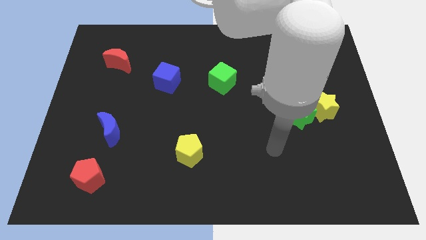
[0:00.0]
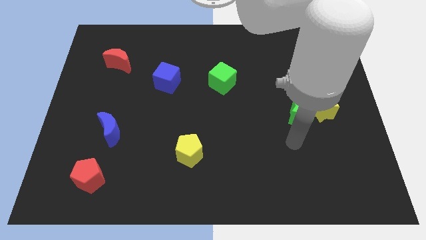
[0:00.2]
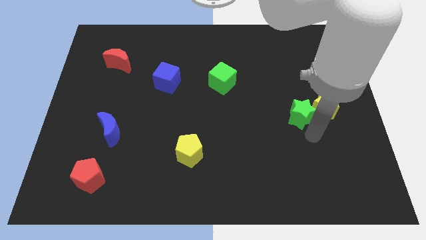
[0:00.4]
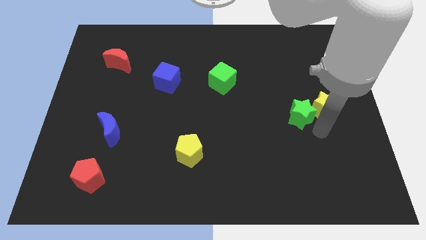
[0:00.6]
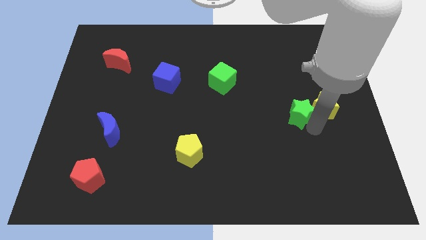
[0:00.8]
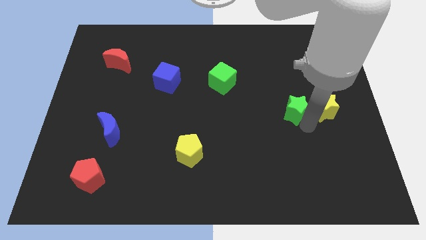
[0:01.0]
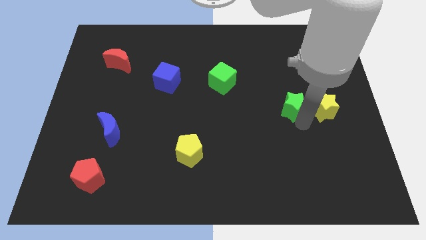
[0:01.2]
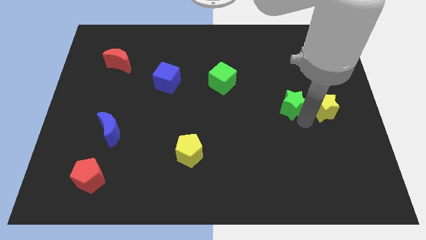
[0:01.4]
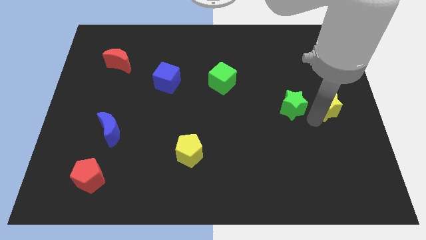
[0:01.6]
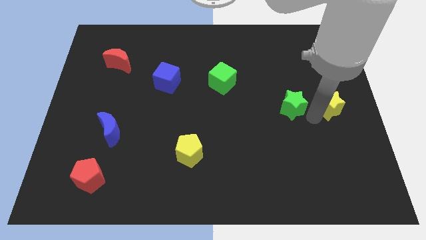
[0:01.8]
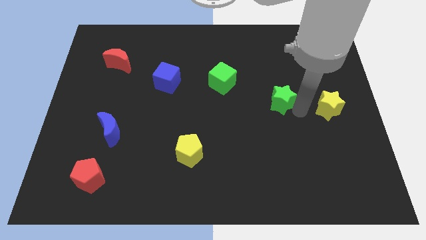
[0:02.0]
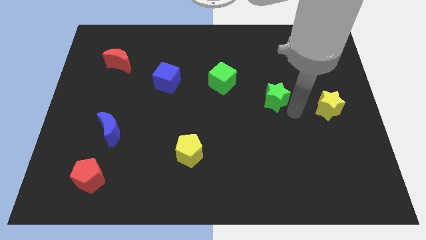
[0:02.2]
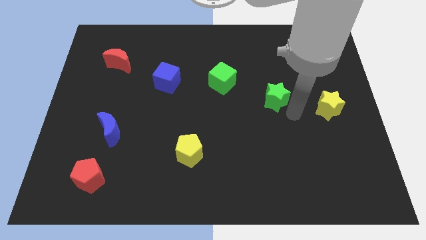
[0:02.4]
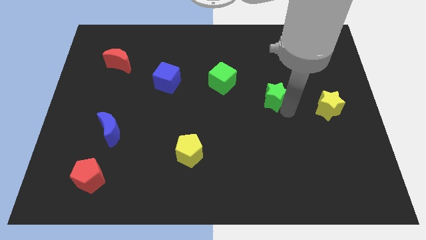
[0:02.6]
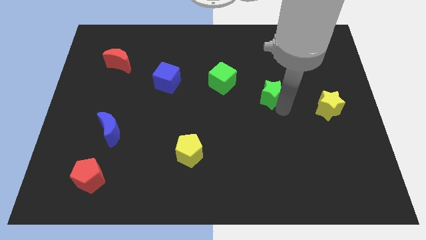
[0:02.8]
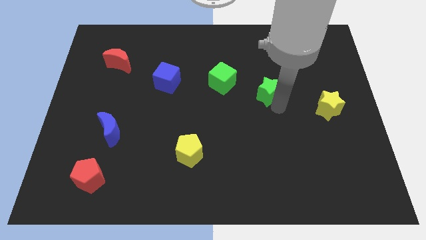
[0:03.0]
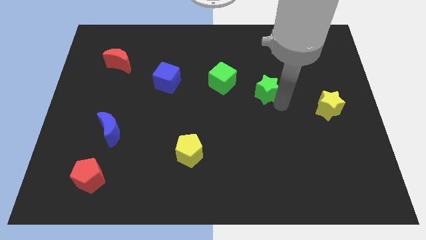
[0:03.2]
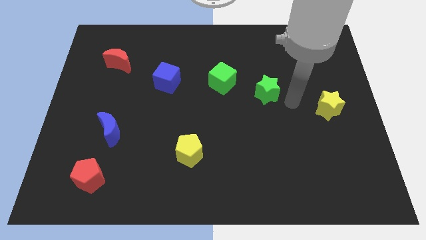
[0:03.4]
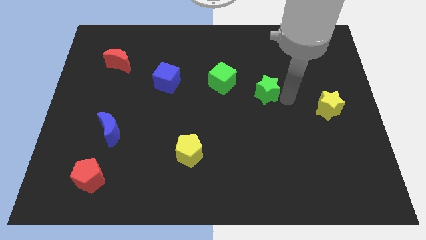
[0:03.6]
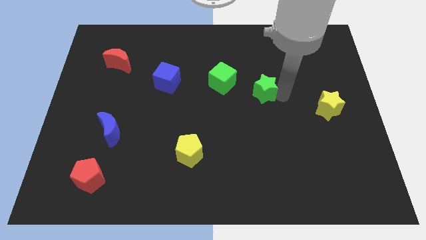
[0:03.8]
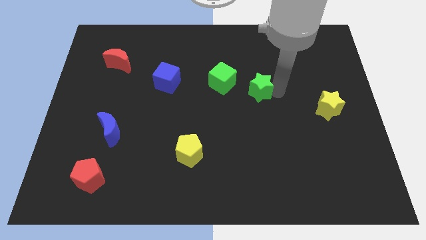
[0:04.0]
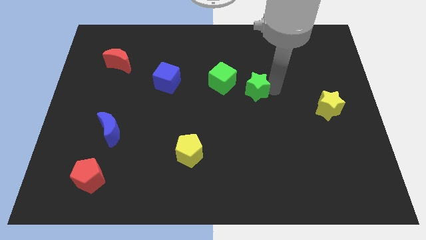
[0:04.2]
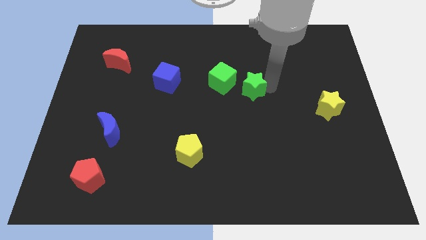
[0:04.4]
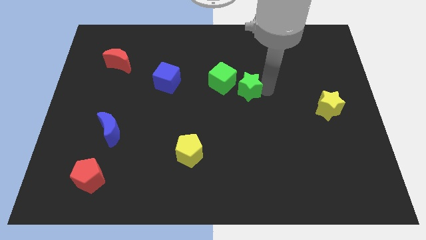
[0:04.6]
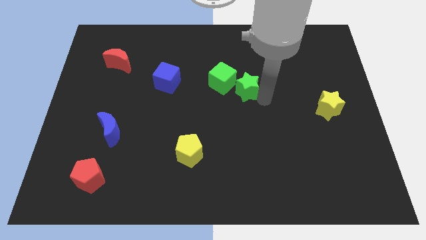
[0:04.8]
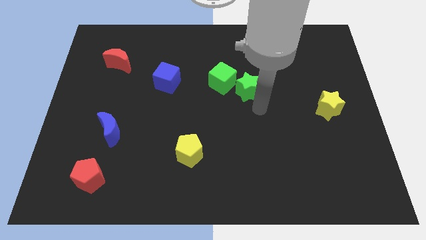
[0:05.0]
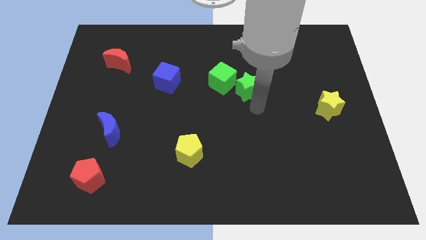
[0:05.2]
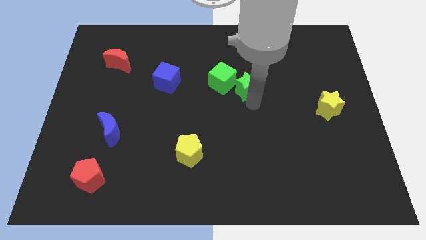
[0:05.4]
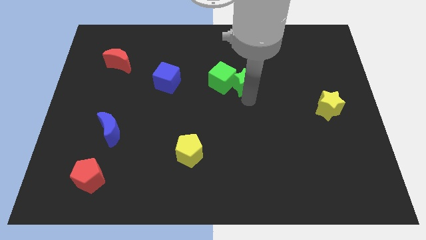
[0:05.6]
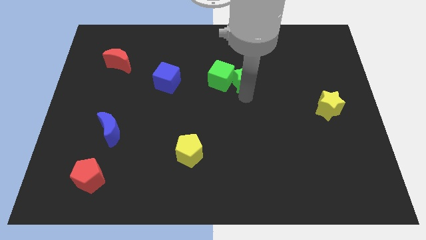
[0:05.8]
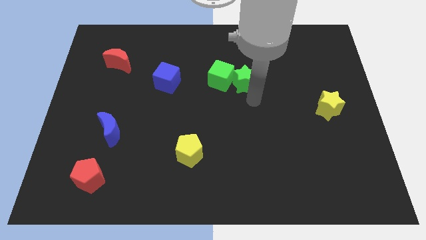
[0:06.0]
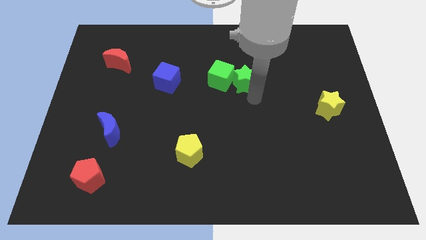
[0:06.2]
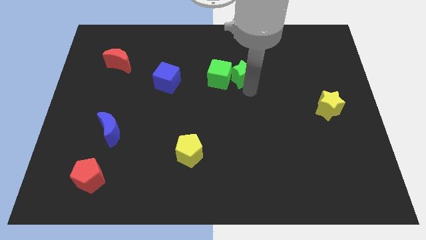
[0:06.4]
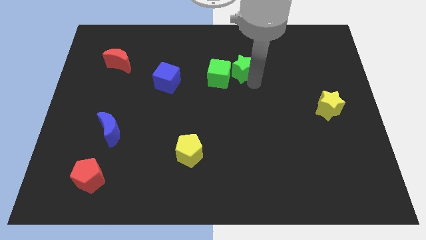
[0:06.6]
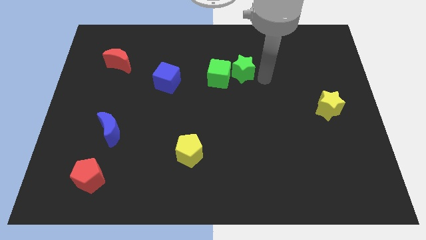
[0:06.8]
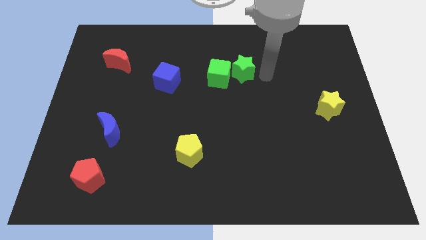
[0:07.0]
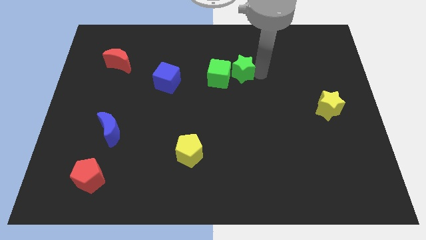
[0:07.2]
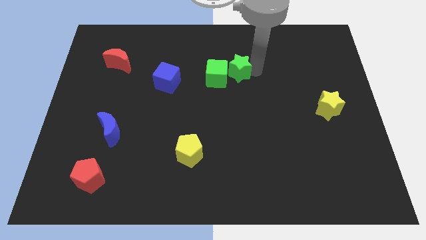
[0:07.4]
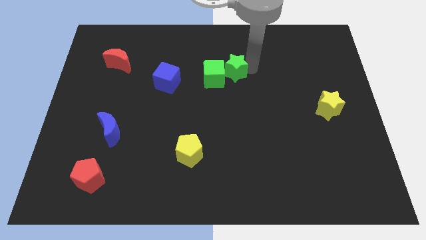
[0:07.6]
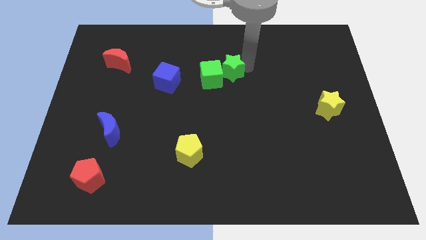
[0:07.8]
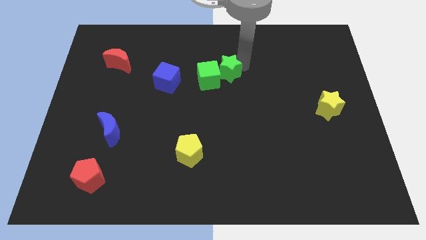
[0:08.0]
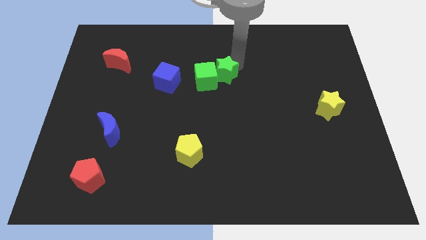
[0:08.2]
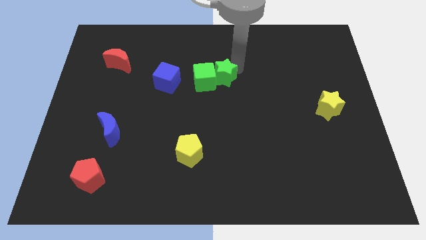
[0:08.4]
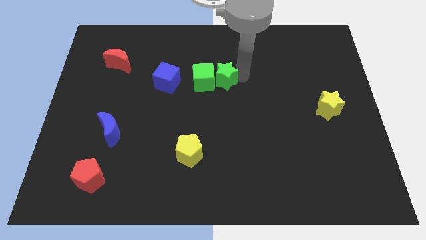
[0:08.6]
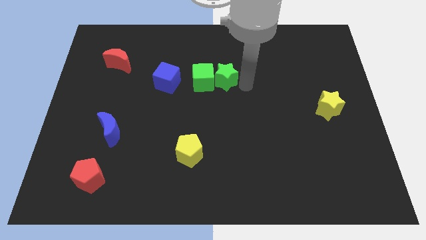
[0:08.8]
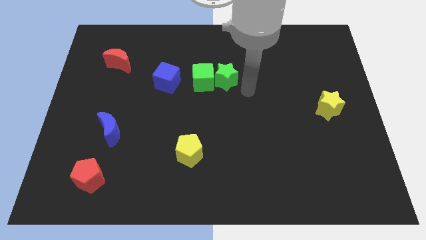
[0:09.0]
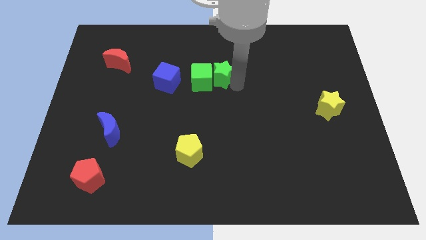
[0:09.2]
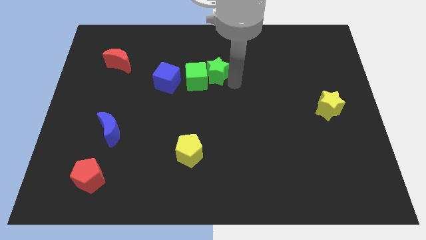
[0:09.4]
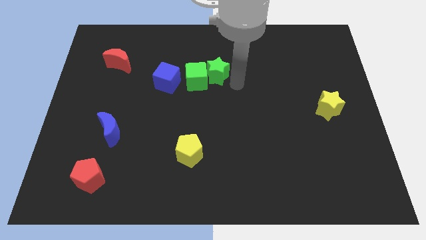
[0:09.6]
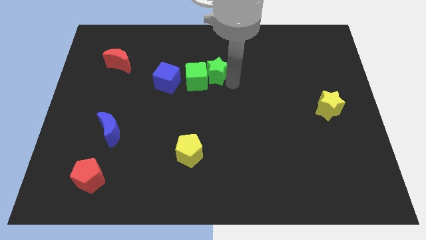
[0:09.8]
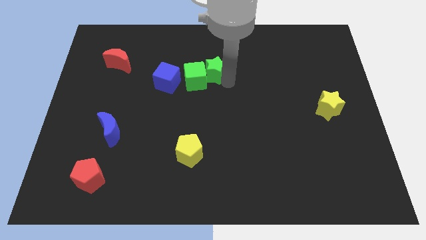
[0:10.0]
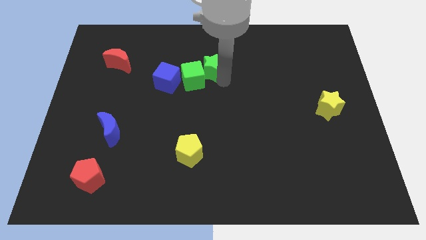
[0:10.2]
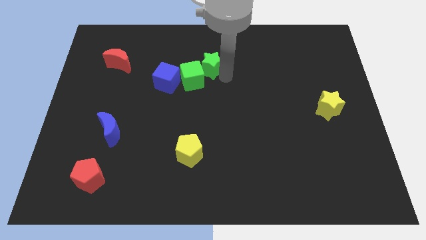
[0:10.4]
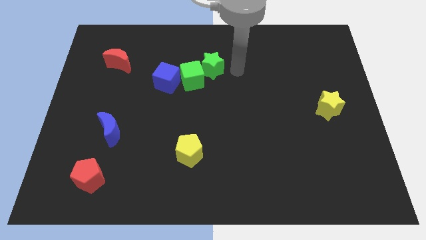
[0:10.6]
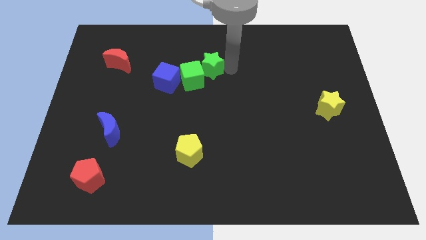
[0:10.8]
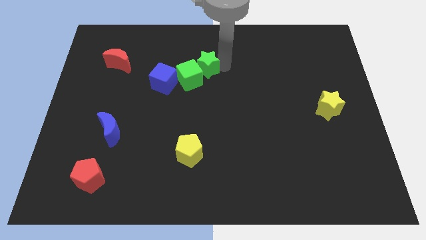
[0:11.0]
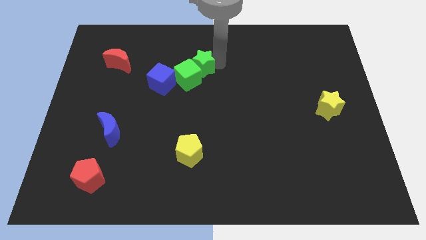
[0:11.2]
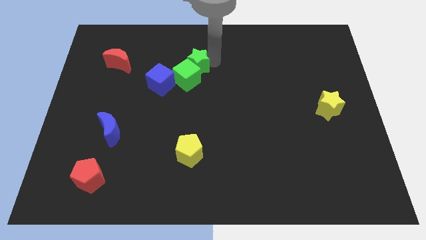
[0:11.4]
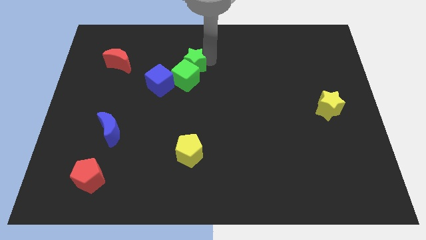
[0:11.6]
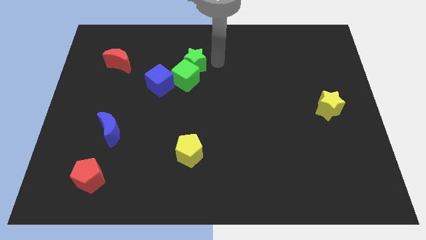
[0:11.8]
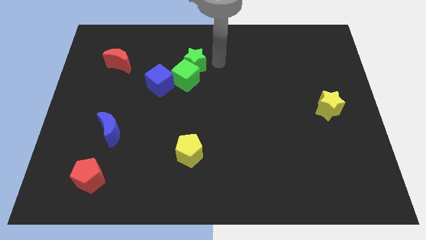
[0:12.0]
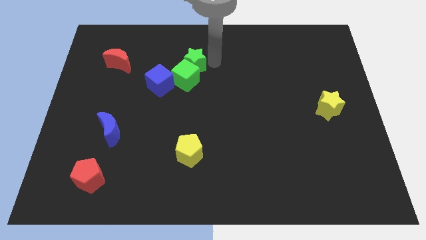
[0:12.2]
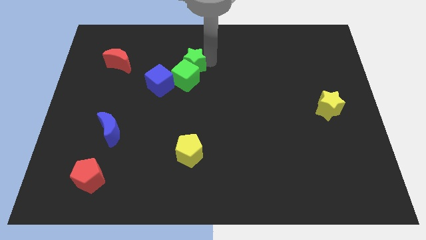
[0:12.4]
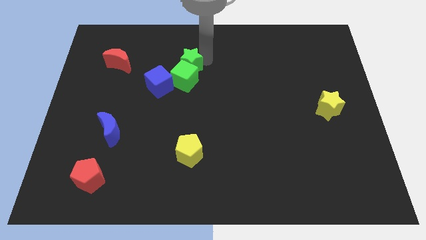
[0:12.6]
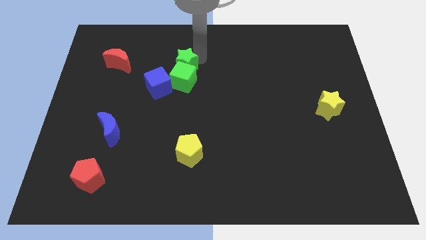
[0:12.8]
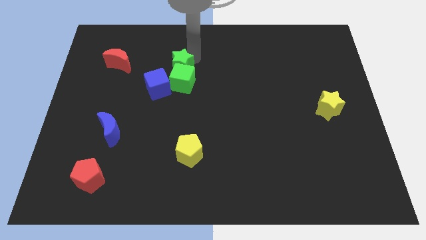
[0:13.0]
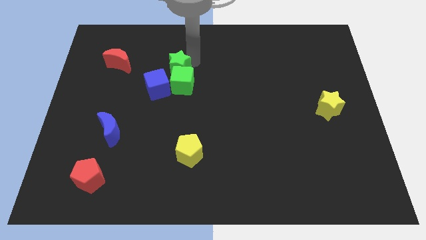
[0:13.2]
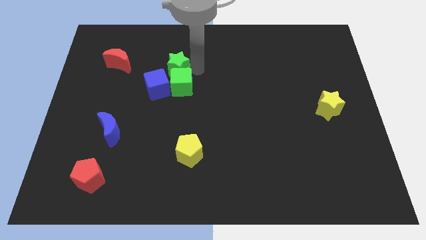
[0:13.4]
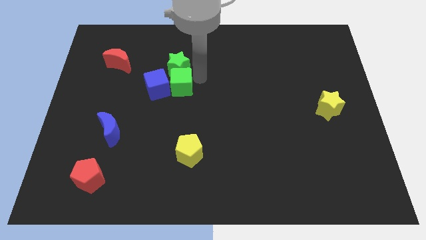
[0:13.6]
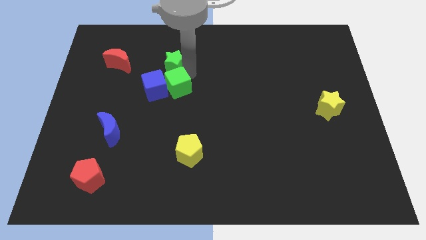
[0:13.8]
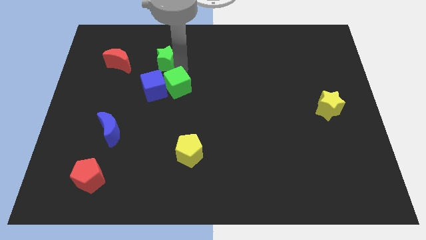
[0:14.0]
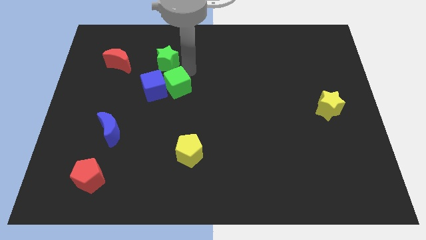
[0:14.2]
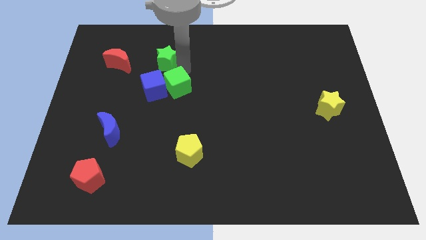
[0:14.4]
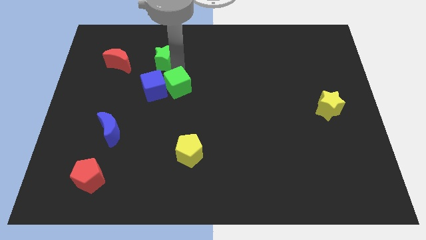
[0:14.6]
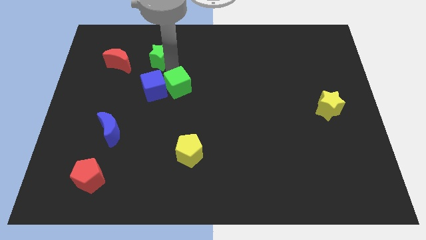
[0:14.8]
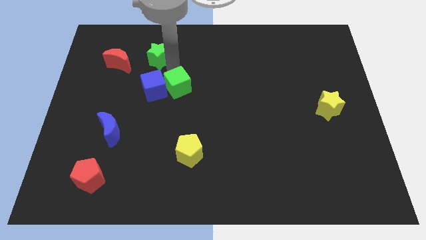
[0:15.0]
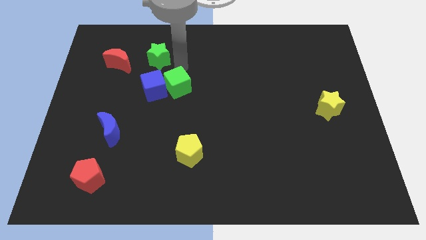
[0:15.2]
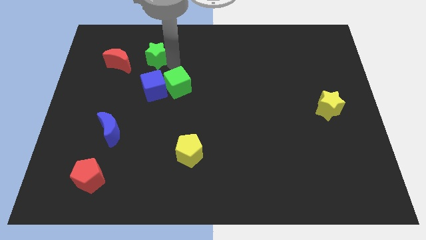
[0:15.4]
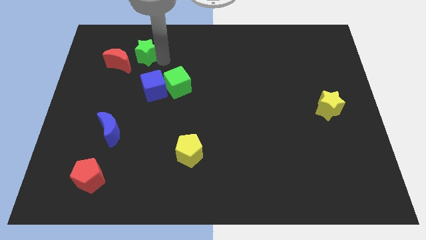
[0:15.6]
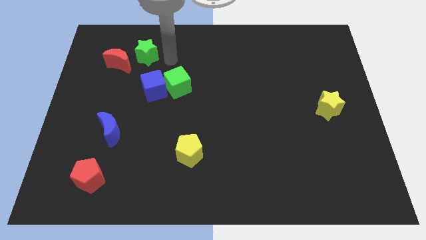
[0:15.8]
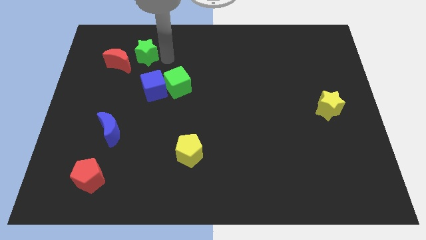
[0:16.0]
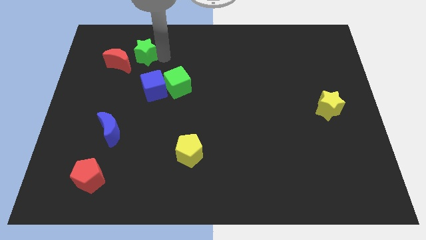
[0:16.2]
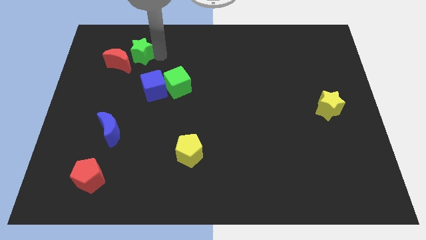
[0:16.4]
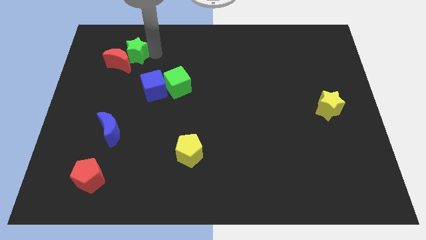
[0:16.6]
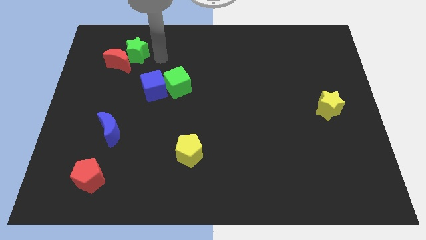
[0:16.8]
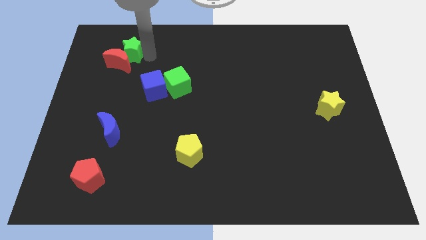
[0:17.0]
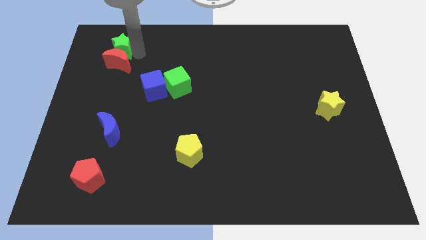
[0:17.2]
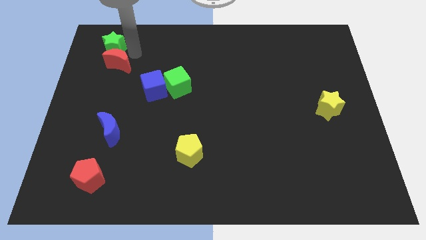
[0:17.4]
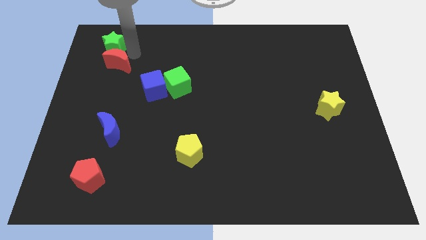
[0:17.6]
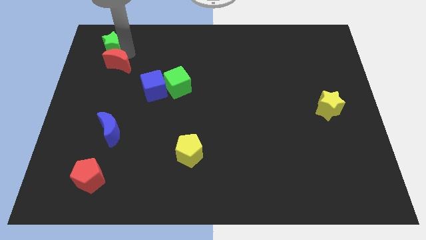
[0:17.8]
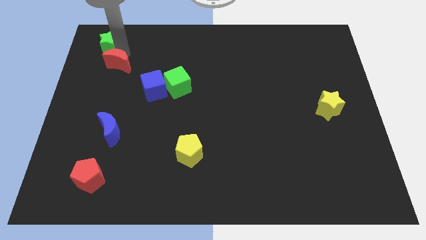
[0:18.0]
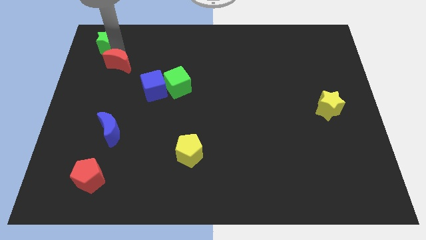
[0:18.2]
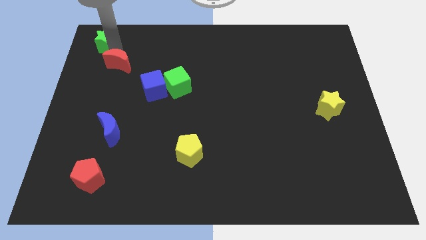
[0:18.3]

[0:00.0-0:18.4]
push the green star to the upper left corner
